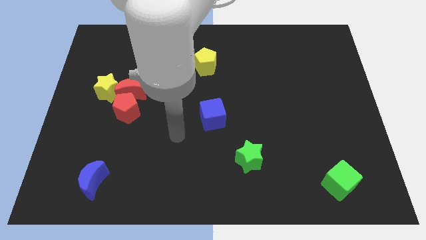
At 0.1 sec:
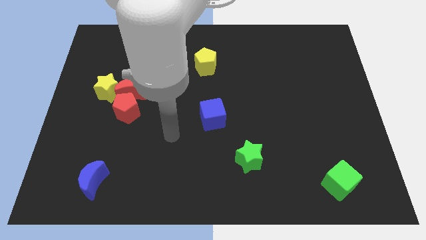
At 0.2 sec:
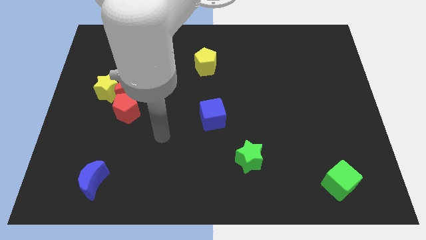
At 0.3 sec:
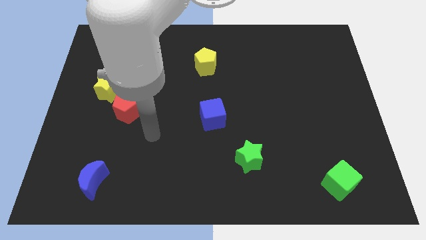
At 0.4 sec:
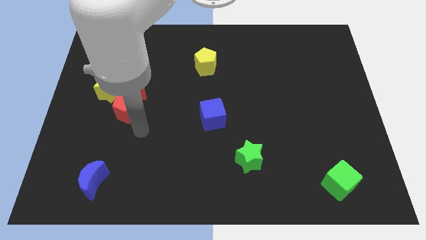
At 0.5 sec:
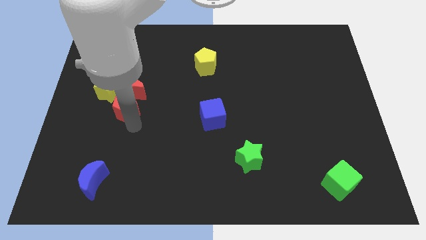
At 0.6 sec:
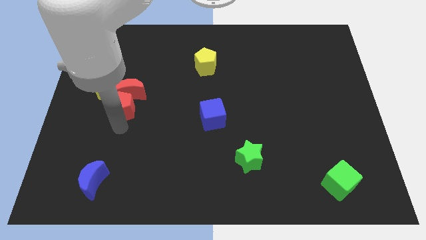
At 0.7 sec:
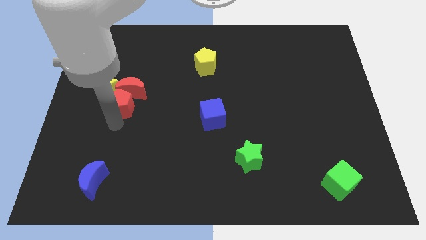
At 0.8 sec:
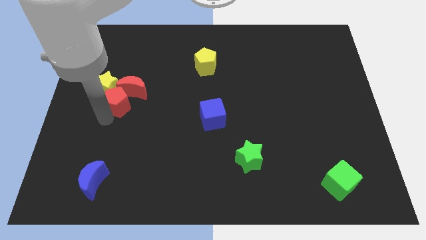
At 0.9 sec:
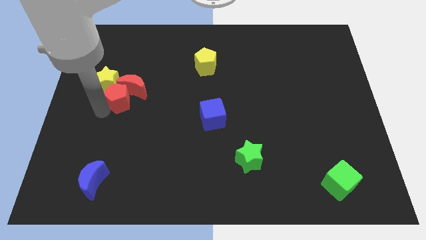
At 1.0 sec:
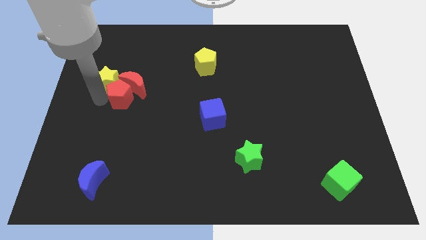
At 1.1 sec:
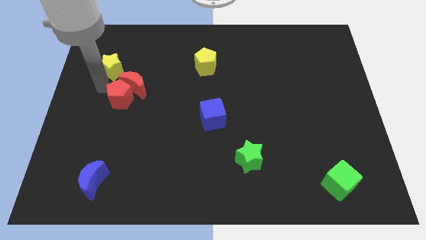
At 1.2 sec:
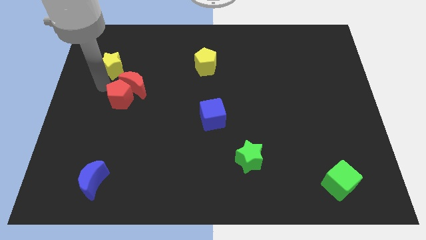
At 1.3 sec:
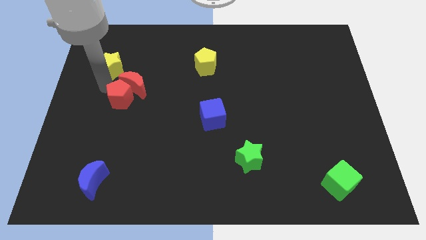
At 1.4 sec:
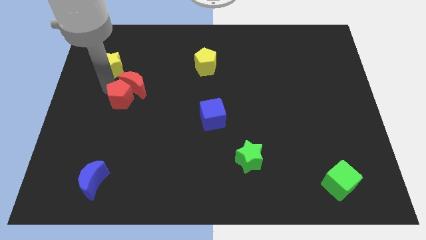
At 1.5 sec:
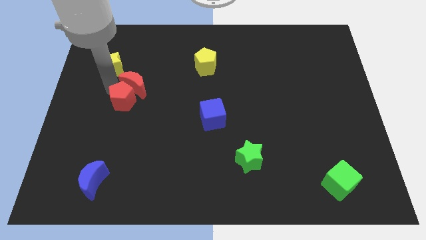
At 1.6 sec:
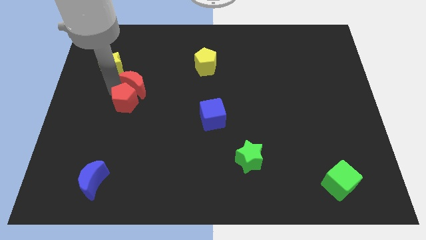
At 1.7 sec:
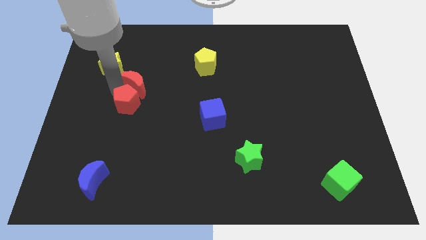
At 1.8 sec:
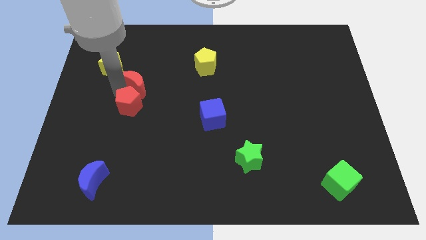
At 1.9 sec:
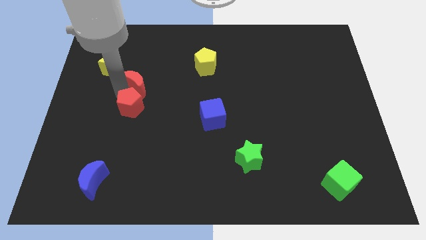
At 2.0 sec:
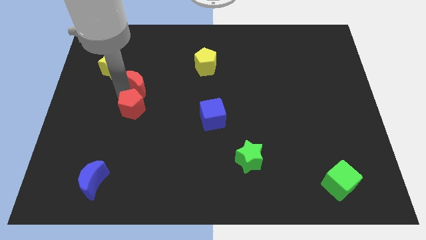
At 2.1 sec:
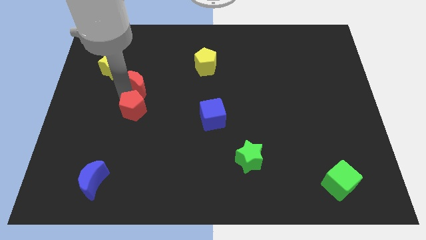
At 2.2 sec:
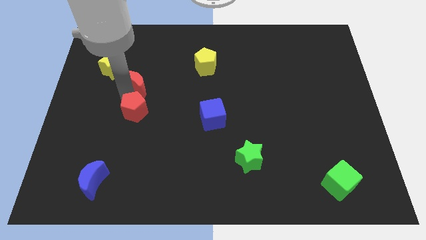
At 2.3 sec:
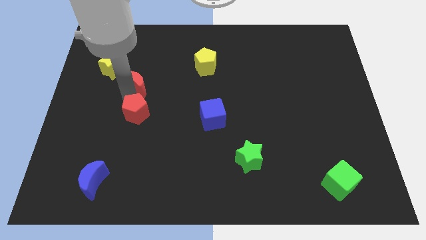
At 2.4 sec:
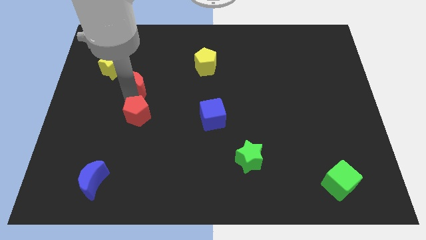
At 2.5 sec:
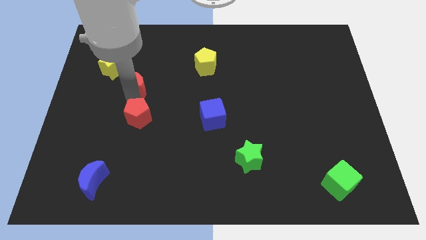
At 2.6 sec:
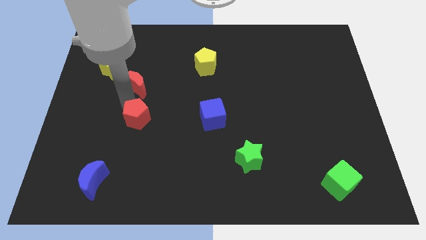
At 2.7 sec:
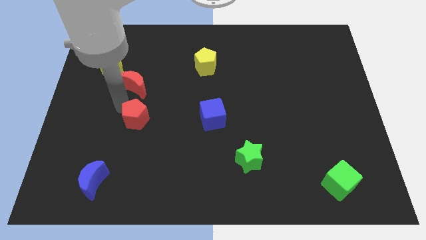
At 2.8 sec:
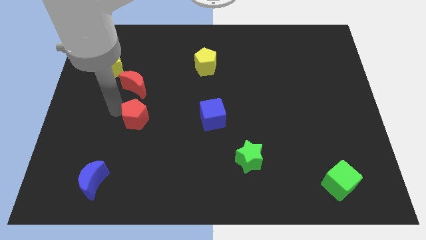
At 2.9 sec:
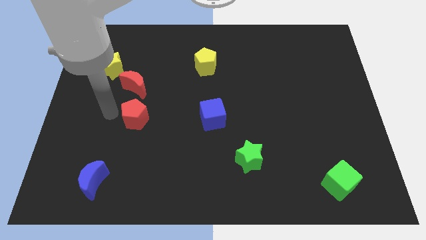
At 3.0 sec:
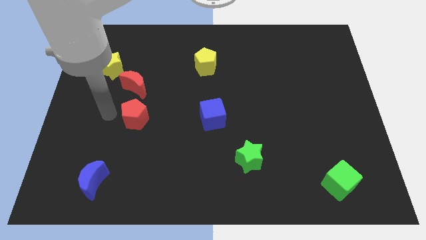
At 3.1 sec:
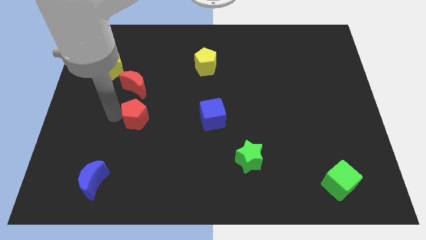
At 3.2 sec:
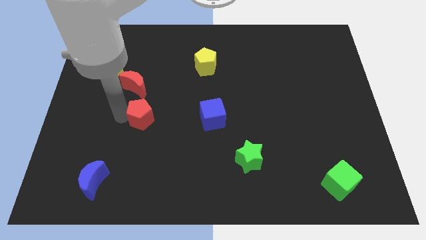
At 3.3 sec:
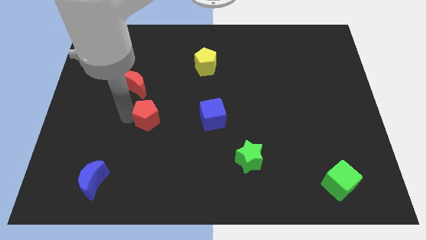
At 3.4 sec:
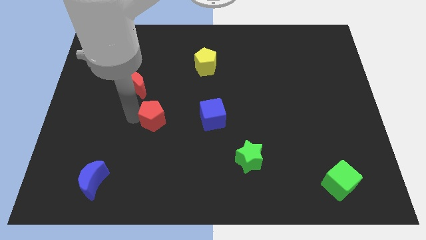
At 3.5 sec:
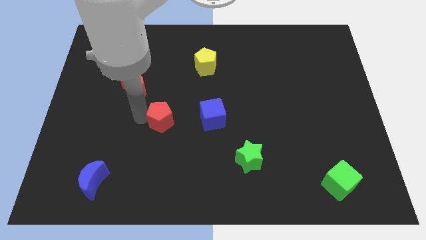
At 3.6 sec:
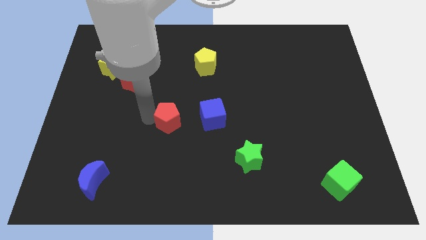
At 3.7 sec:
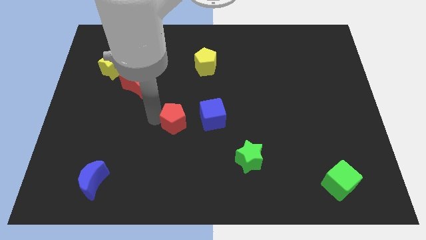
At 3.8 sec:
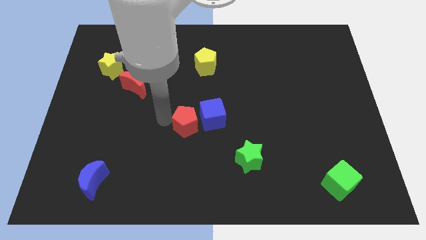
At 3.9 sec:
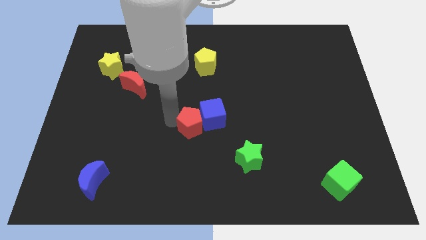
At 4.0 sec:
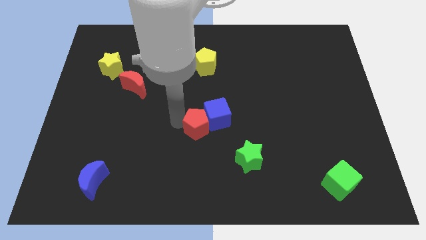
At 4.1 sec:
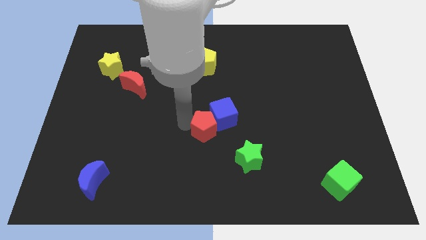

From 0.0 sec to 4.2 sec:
put the red pentagon to the top left side of the green star

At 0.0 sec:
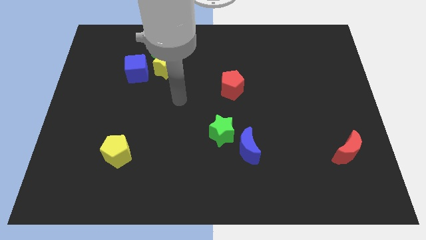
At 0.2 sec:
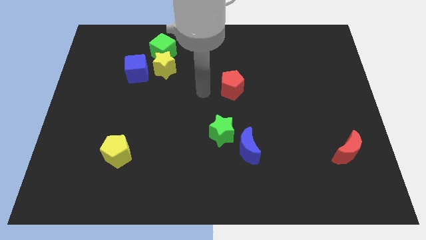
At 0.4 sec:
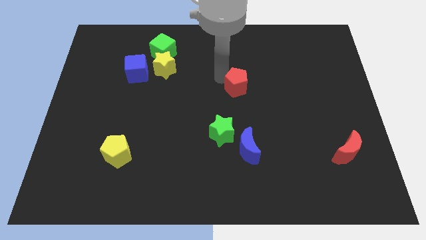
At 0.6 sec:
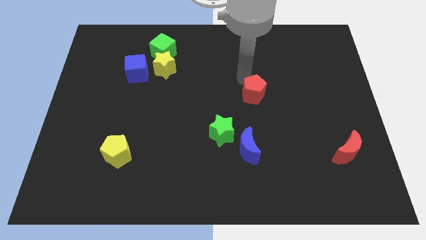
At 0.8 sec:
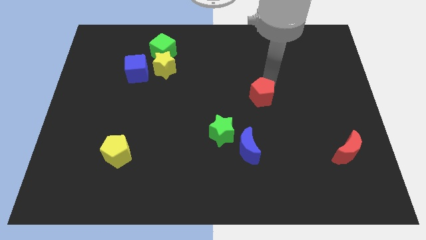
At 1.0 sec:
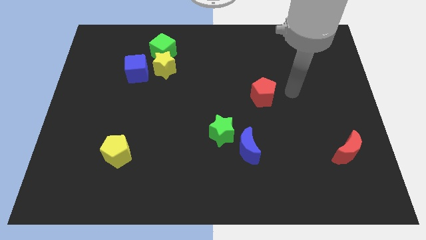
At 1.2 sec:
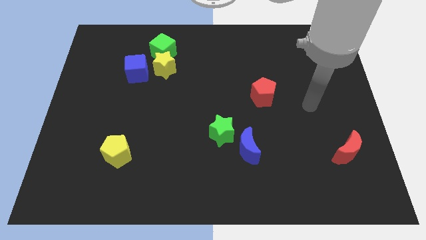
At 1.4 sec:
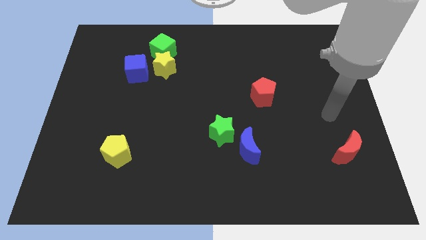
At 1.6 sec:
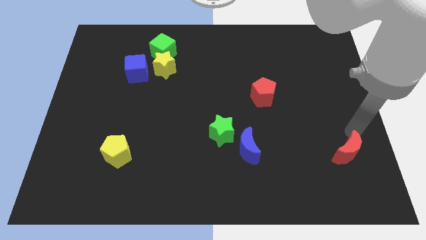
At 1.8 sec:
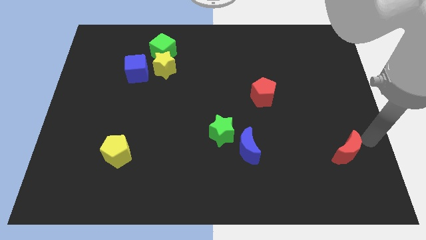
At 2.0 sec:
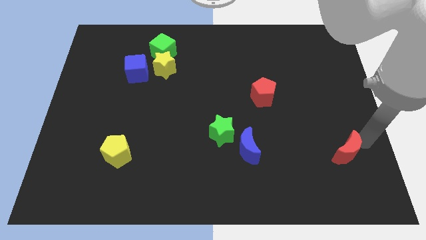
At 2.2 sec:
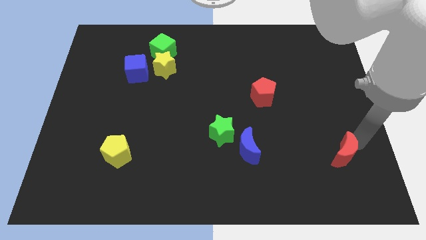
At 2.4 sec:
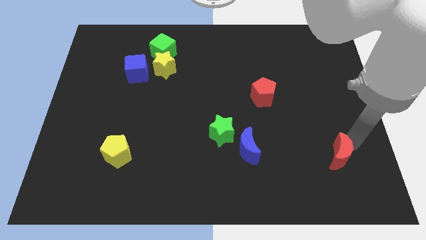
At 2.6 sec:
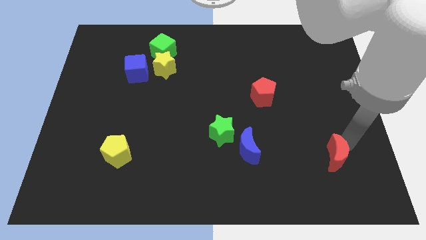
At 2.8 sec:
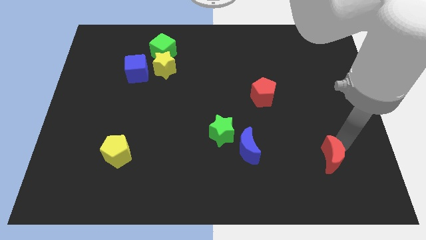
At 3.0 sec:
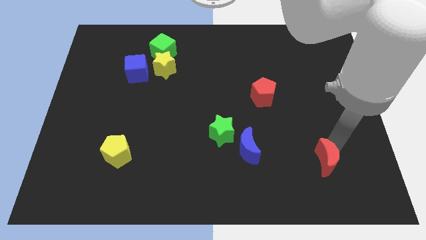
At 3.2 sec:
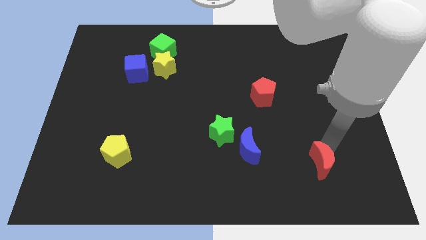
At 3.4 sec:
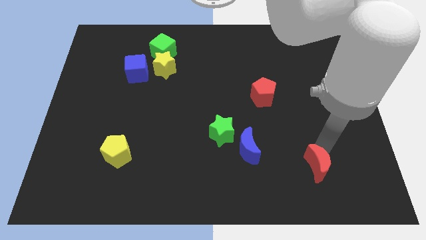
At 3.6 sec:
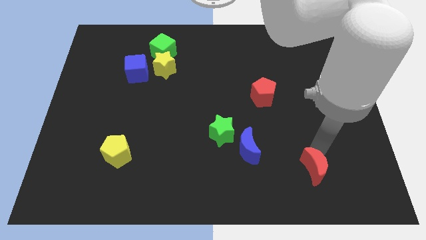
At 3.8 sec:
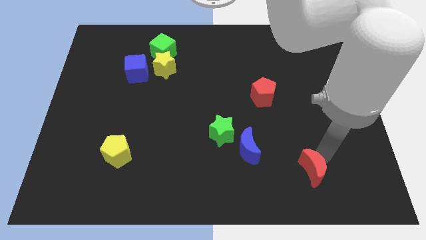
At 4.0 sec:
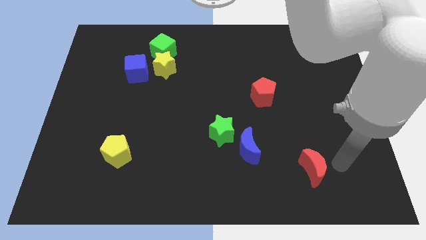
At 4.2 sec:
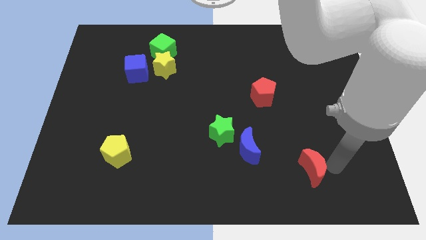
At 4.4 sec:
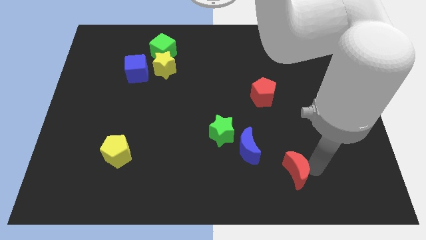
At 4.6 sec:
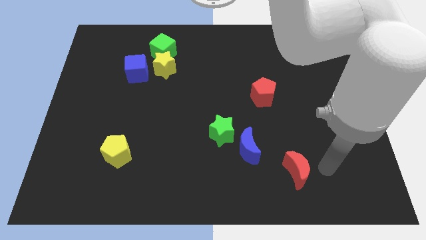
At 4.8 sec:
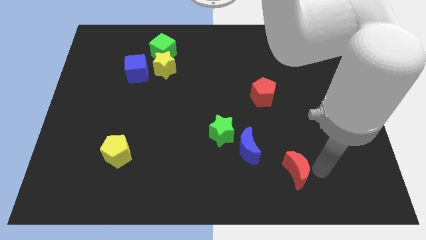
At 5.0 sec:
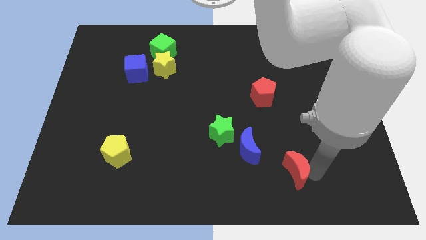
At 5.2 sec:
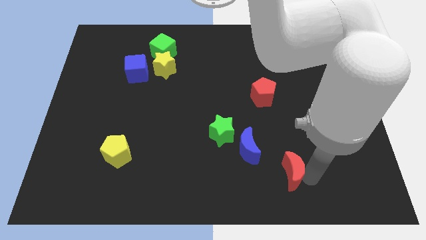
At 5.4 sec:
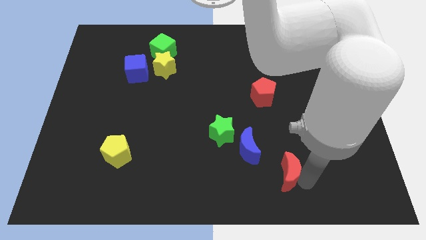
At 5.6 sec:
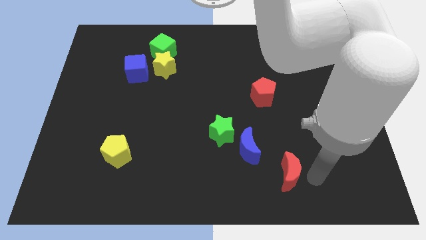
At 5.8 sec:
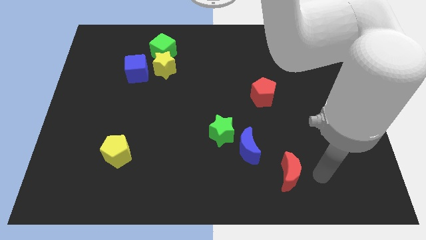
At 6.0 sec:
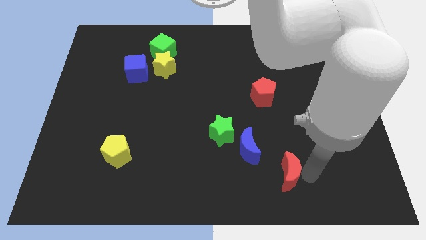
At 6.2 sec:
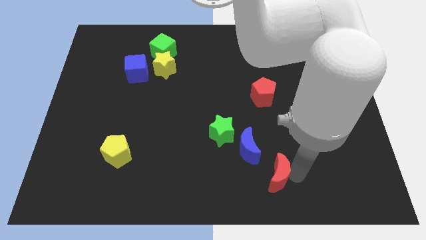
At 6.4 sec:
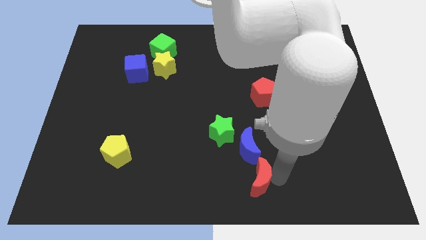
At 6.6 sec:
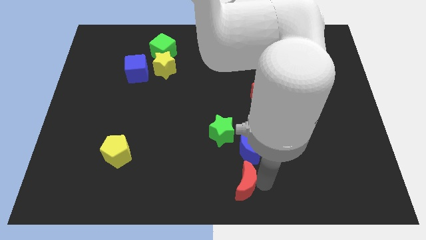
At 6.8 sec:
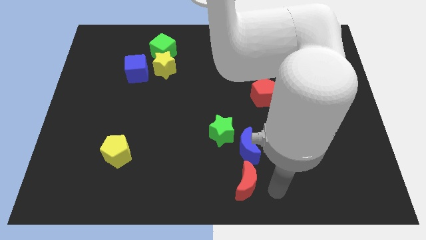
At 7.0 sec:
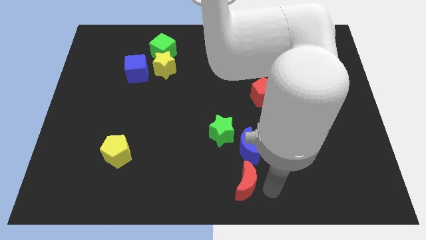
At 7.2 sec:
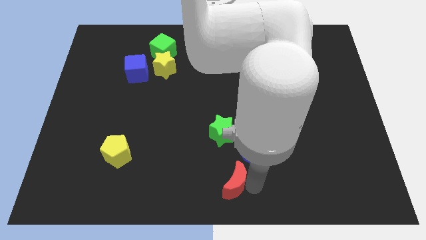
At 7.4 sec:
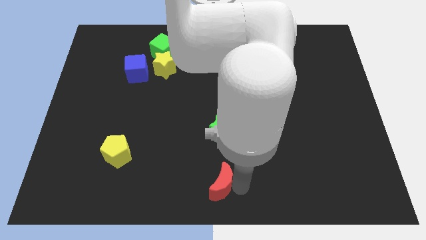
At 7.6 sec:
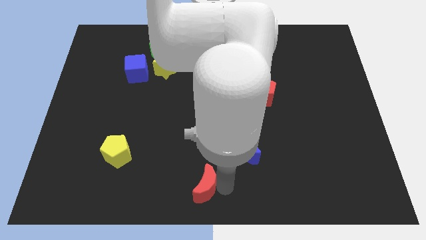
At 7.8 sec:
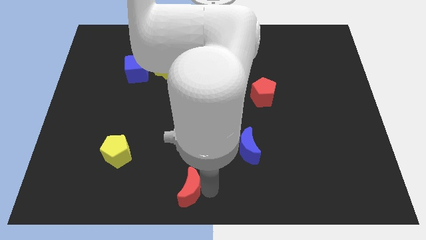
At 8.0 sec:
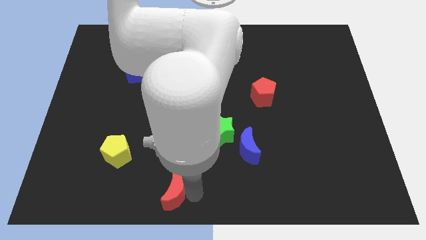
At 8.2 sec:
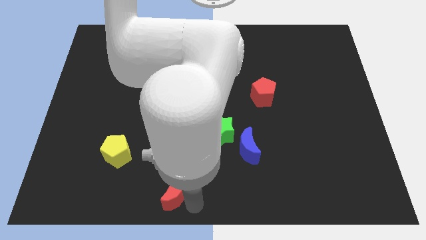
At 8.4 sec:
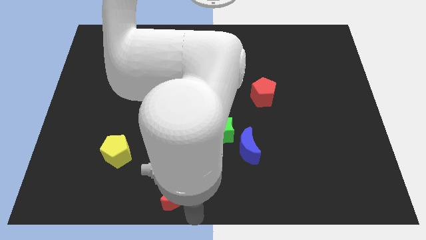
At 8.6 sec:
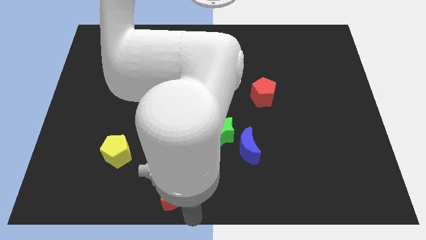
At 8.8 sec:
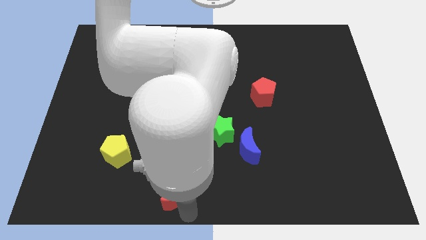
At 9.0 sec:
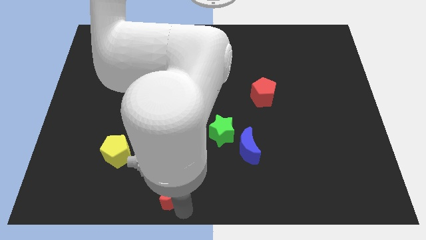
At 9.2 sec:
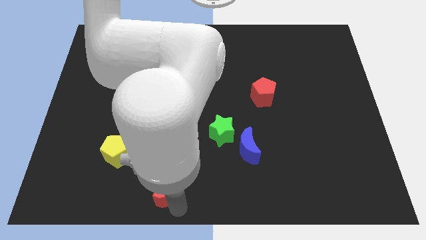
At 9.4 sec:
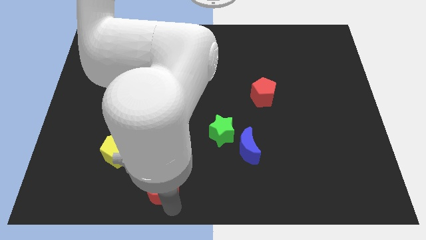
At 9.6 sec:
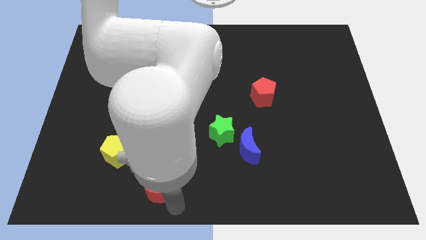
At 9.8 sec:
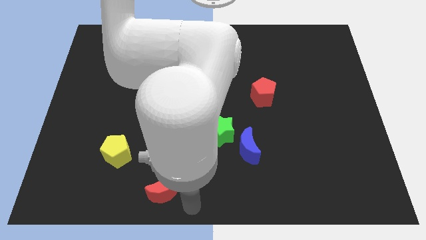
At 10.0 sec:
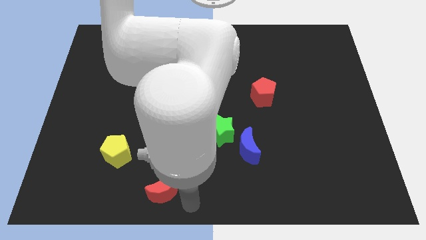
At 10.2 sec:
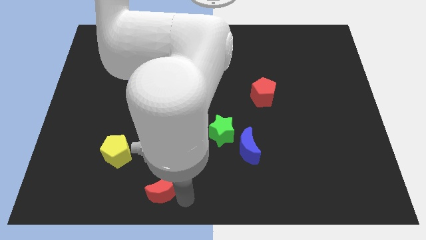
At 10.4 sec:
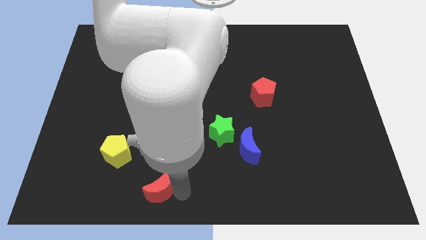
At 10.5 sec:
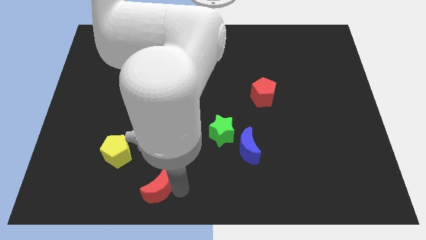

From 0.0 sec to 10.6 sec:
move the red moon to the bottom right side of the yellow pentagon
